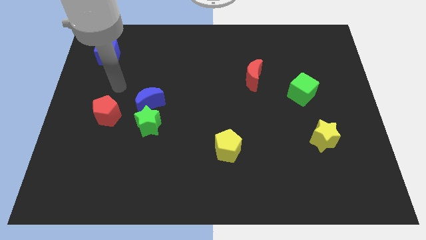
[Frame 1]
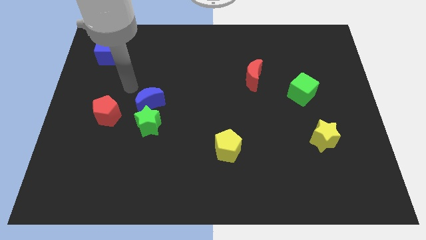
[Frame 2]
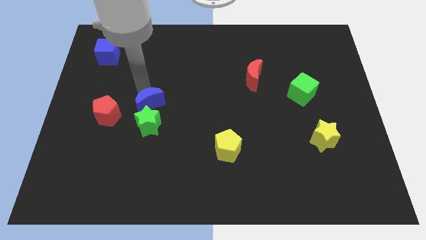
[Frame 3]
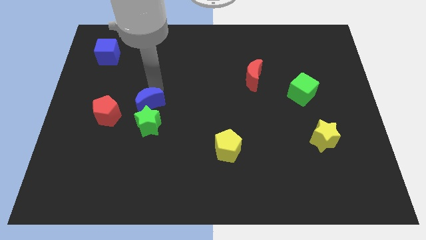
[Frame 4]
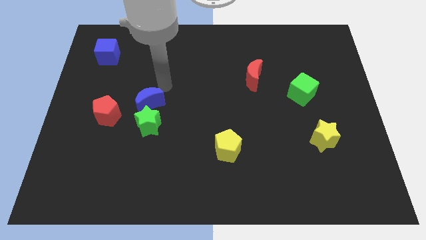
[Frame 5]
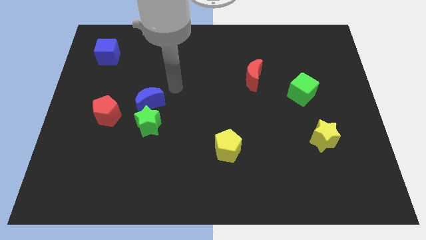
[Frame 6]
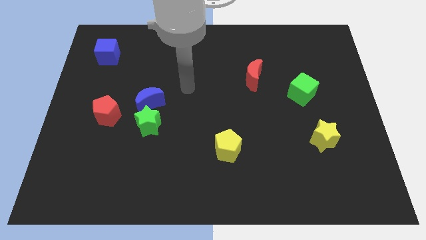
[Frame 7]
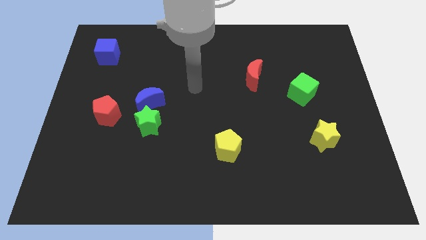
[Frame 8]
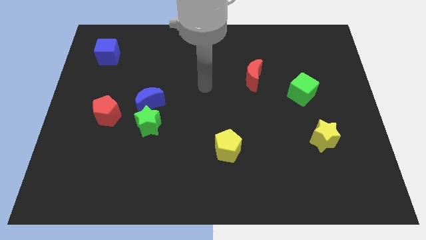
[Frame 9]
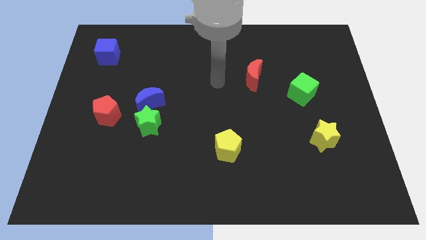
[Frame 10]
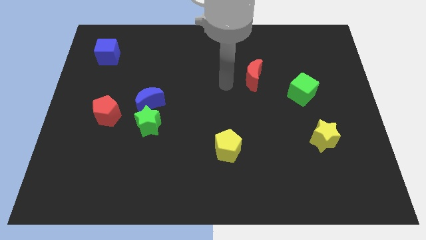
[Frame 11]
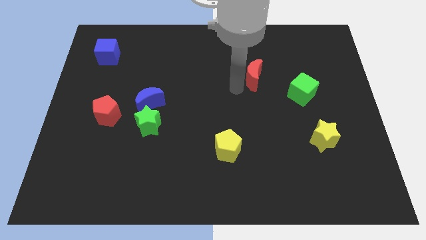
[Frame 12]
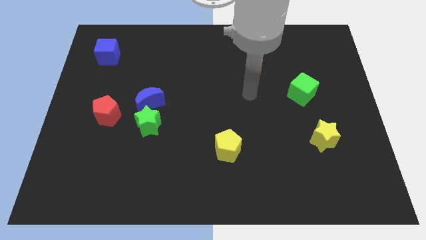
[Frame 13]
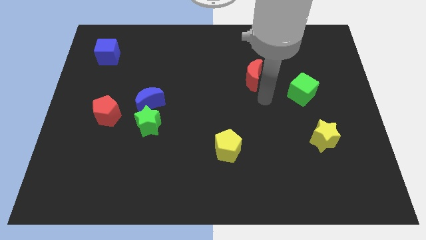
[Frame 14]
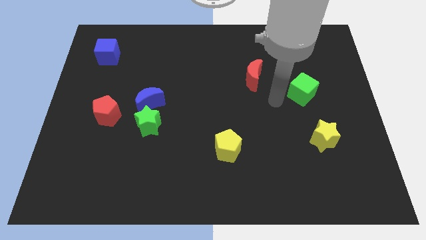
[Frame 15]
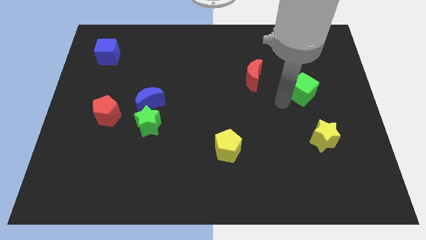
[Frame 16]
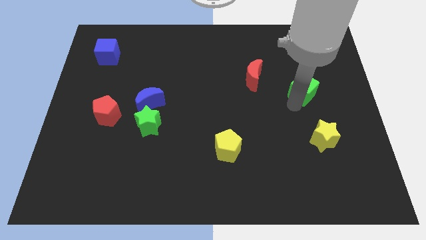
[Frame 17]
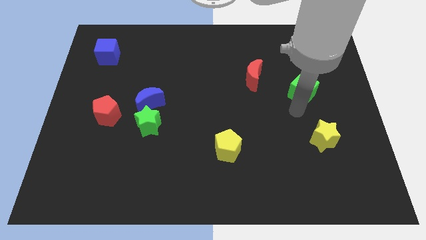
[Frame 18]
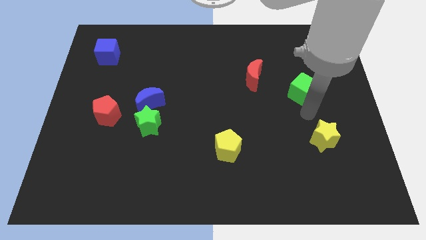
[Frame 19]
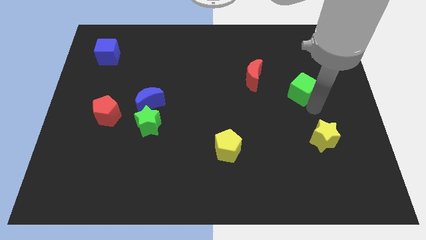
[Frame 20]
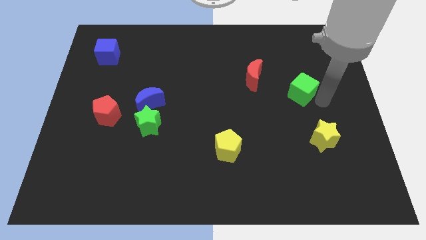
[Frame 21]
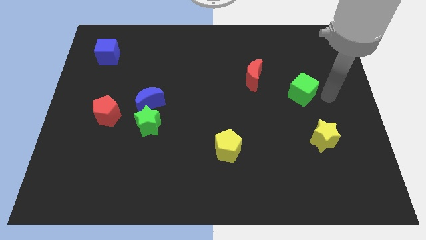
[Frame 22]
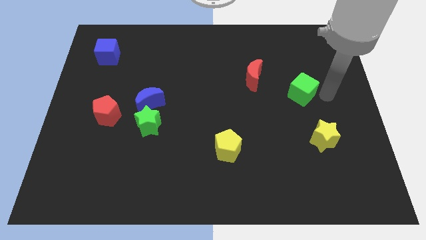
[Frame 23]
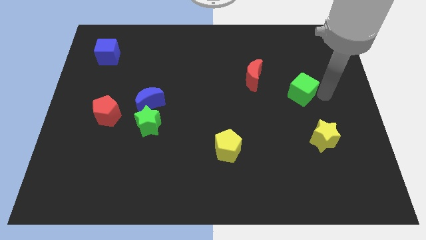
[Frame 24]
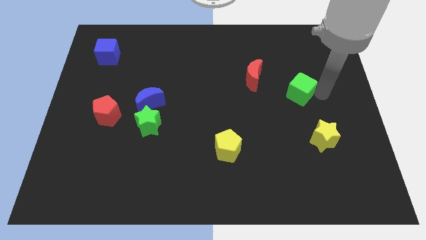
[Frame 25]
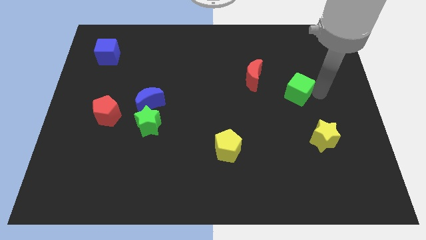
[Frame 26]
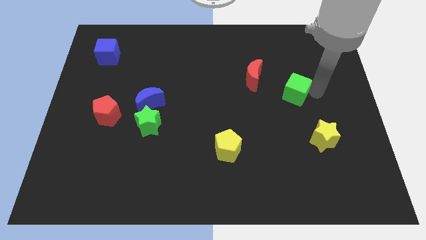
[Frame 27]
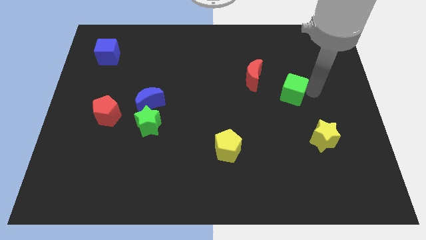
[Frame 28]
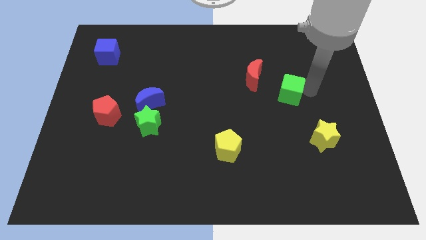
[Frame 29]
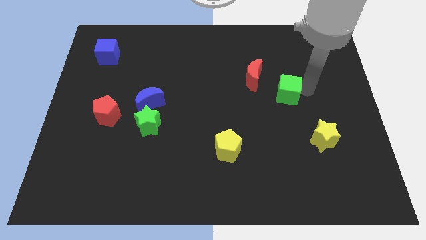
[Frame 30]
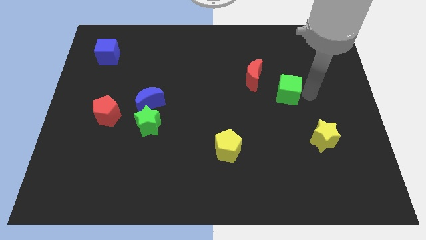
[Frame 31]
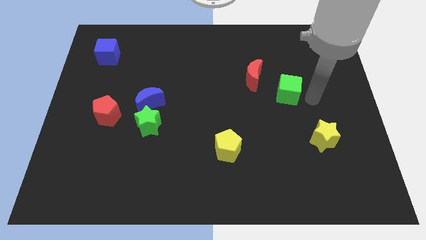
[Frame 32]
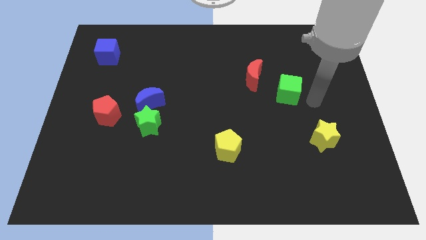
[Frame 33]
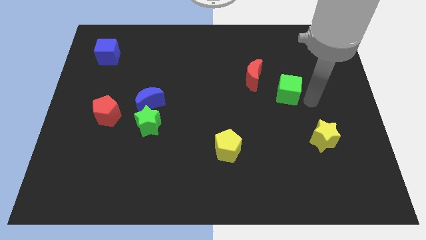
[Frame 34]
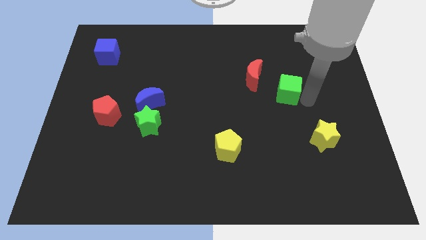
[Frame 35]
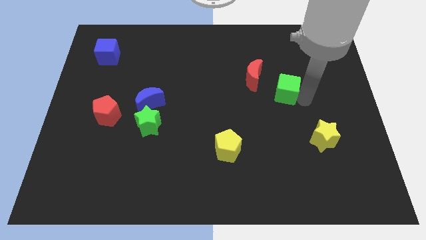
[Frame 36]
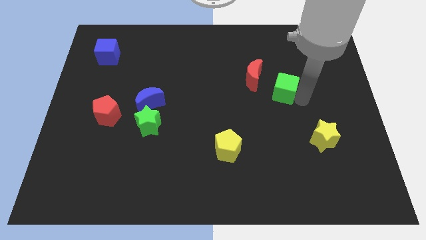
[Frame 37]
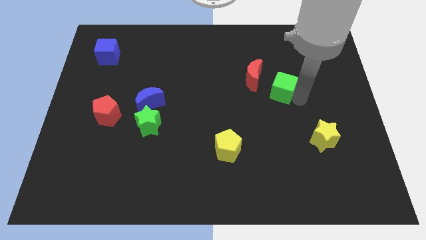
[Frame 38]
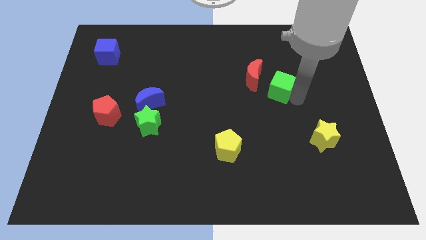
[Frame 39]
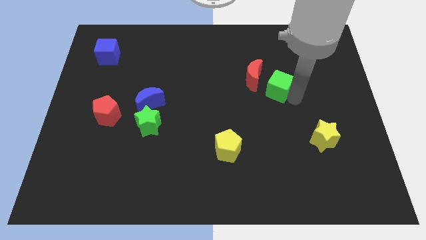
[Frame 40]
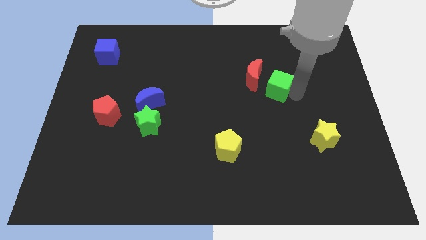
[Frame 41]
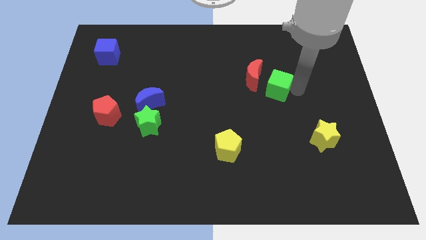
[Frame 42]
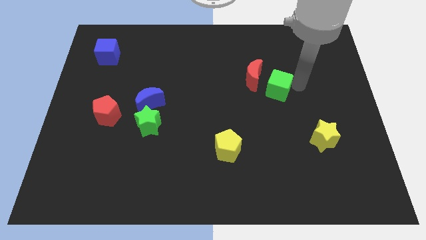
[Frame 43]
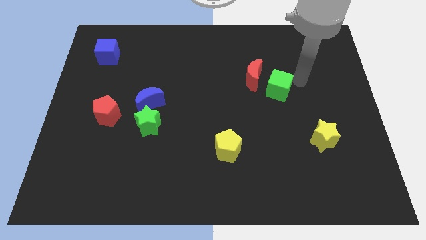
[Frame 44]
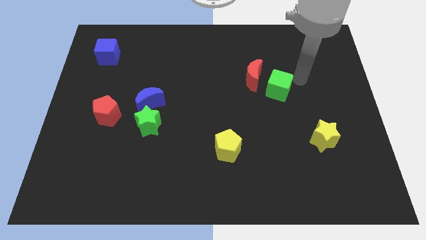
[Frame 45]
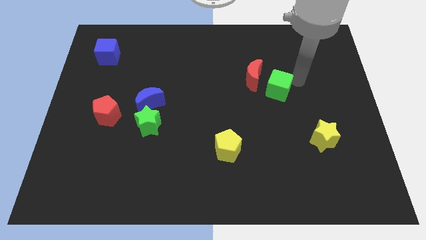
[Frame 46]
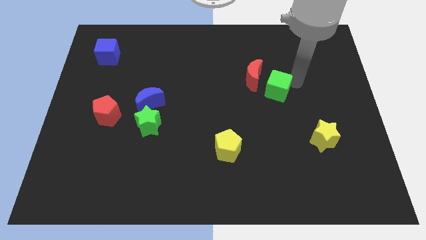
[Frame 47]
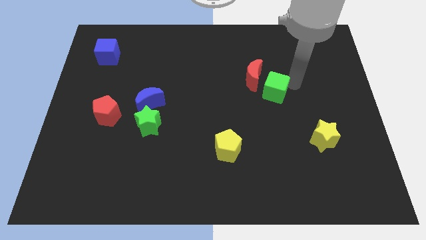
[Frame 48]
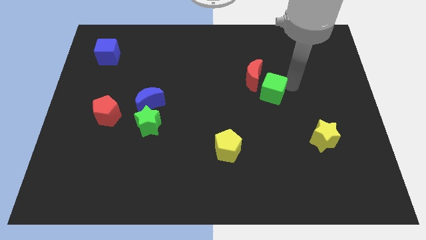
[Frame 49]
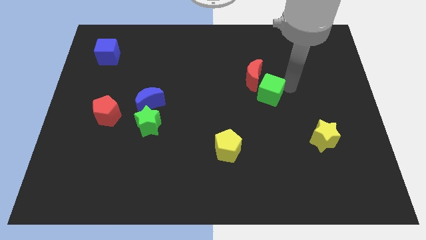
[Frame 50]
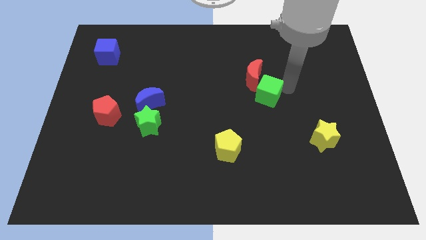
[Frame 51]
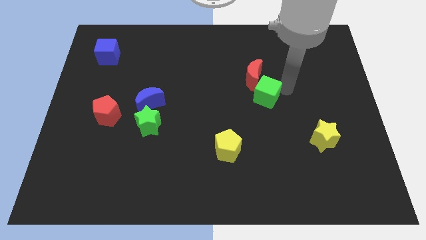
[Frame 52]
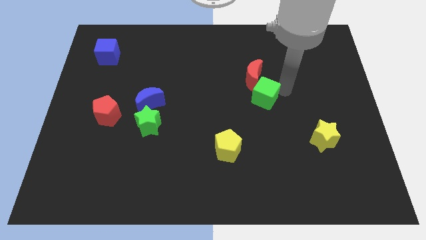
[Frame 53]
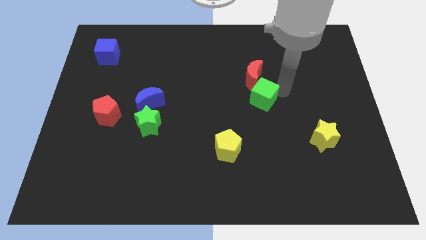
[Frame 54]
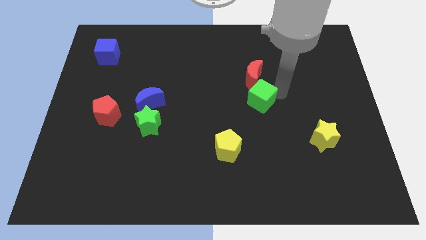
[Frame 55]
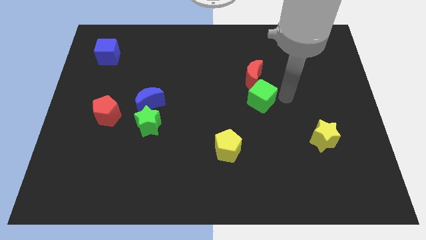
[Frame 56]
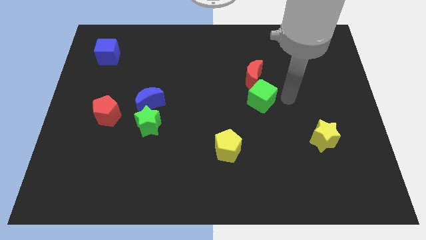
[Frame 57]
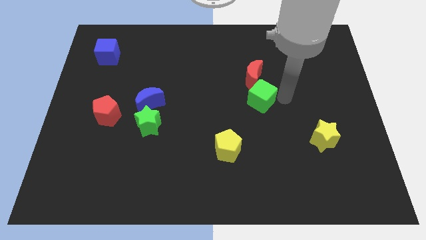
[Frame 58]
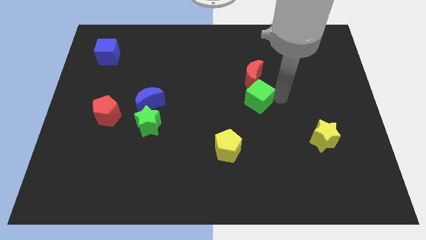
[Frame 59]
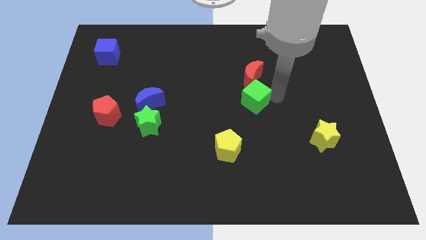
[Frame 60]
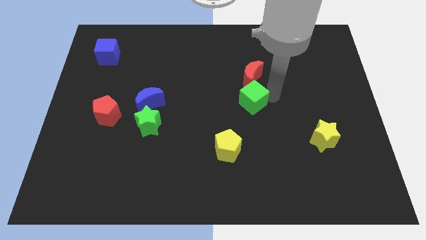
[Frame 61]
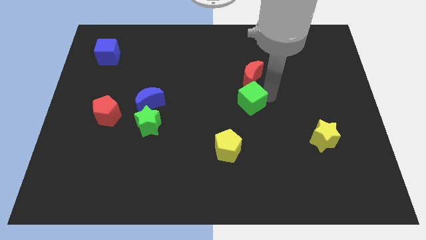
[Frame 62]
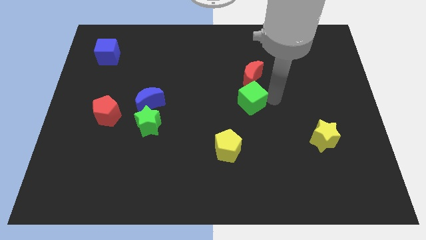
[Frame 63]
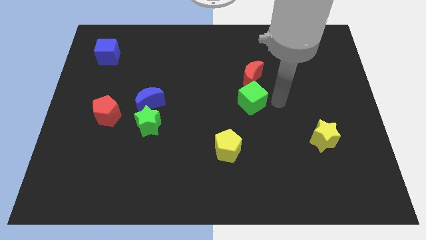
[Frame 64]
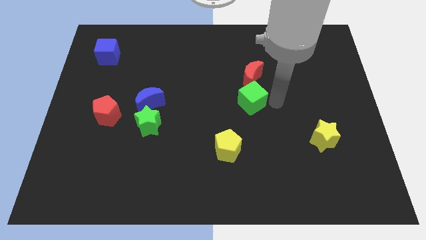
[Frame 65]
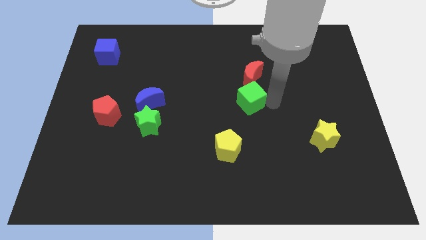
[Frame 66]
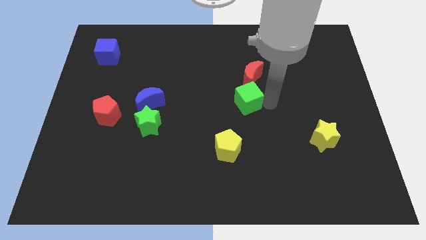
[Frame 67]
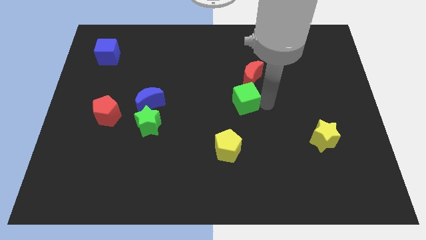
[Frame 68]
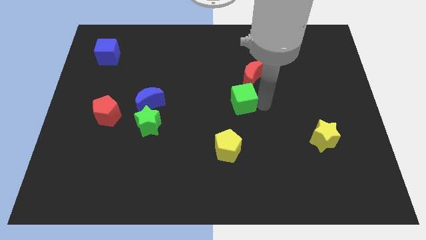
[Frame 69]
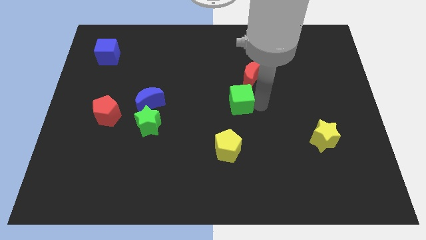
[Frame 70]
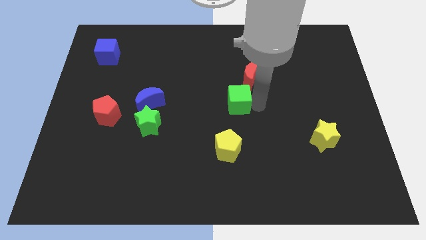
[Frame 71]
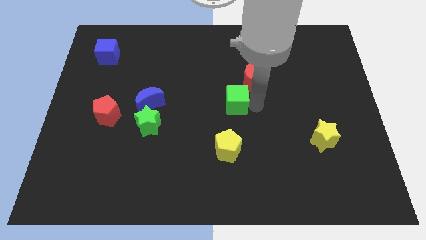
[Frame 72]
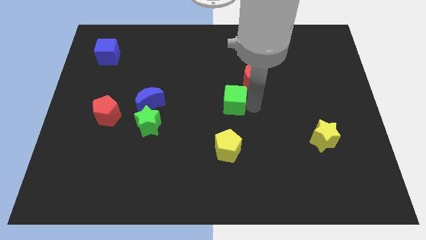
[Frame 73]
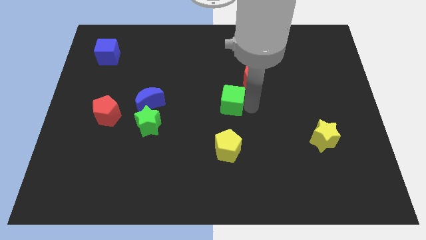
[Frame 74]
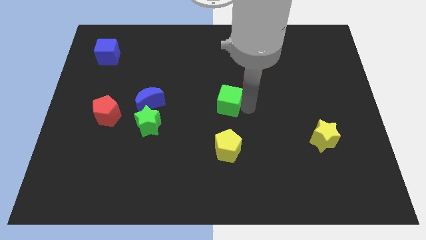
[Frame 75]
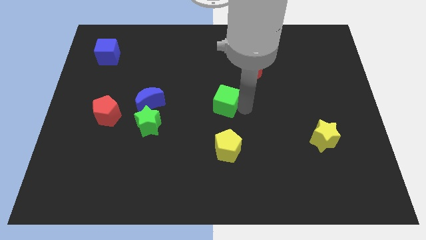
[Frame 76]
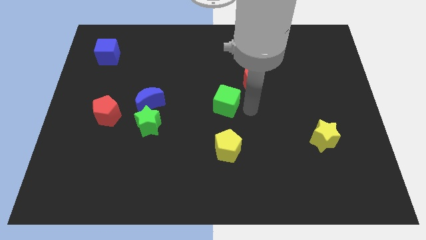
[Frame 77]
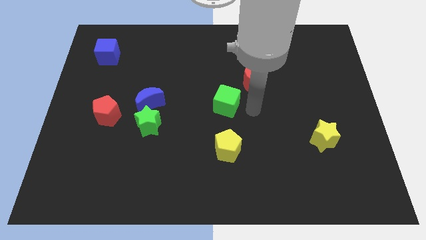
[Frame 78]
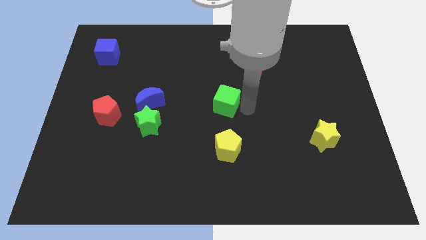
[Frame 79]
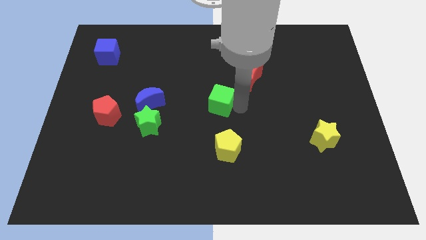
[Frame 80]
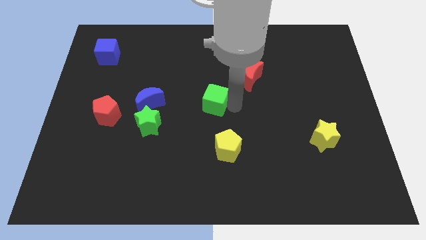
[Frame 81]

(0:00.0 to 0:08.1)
move the green cube to the left
